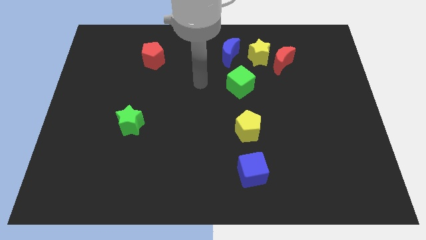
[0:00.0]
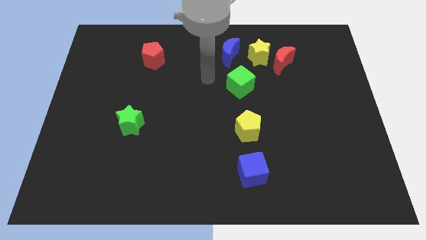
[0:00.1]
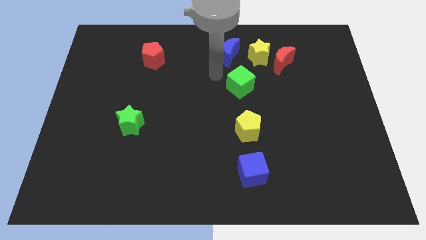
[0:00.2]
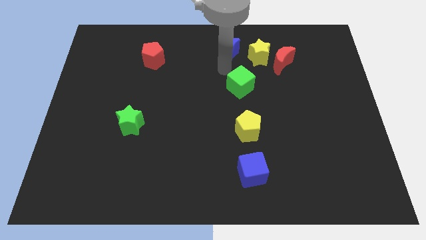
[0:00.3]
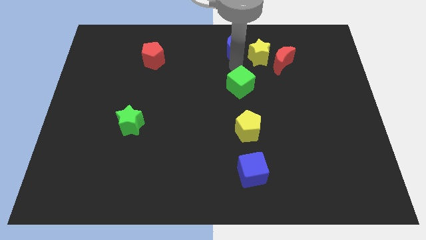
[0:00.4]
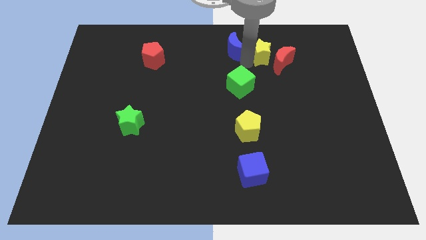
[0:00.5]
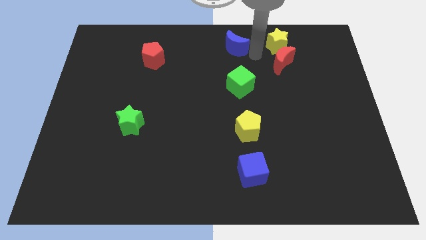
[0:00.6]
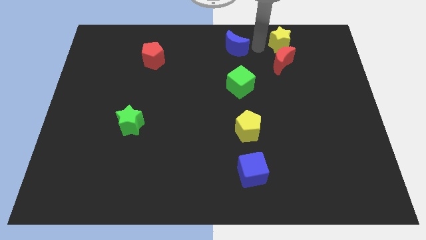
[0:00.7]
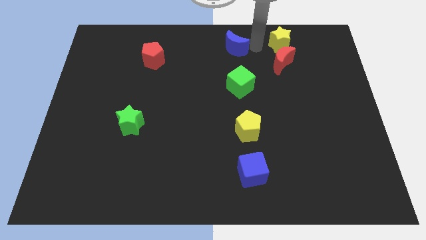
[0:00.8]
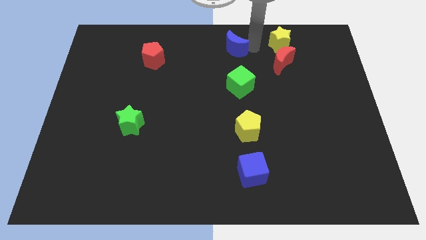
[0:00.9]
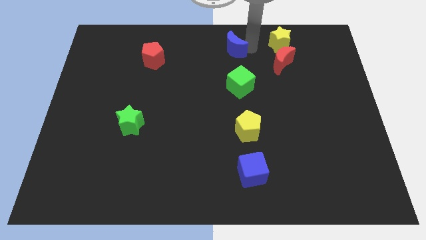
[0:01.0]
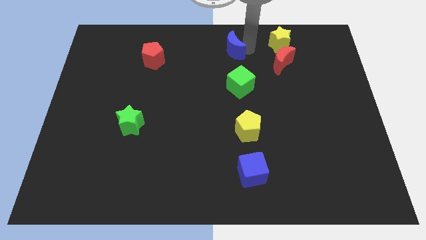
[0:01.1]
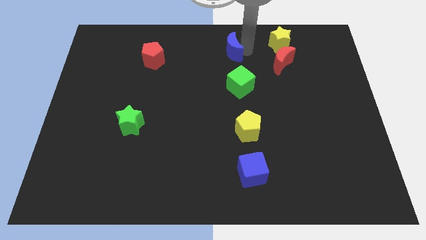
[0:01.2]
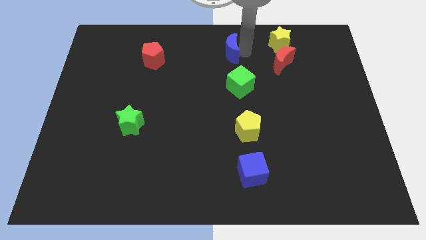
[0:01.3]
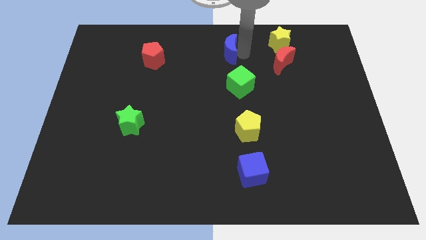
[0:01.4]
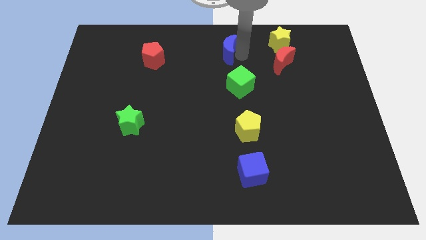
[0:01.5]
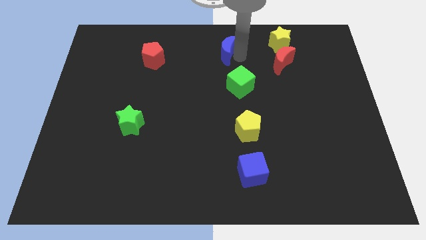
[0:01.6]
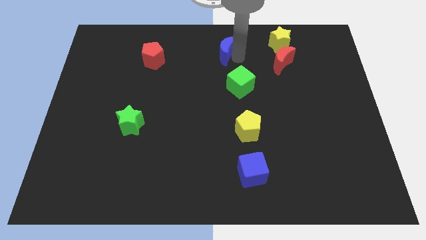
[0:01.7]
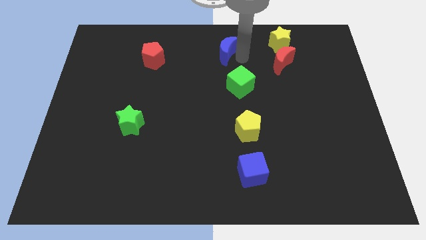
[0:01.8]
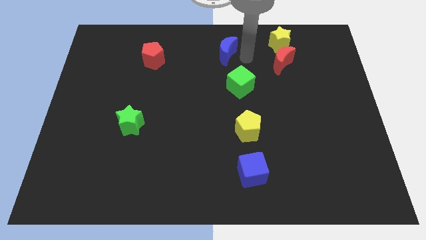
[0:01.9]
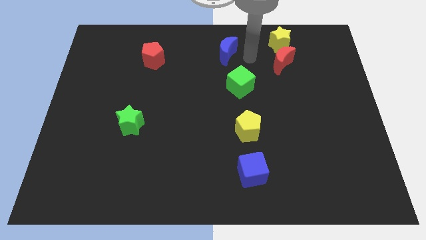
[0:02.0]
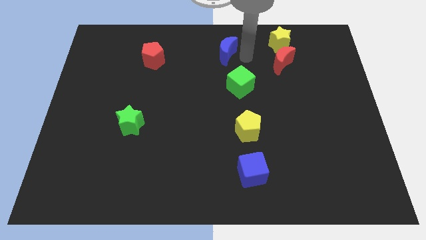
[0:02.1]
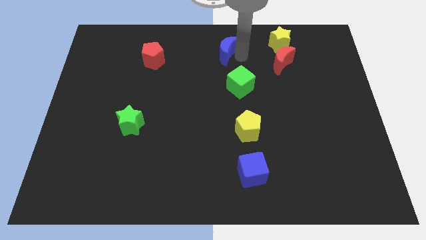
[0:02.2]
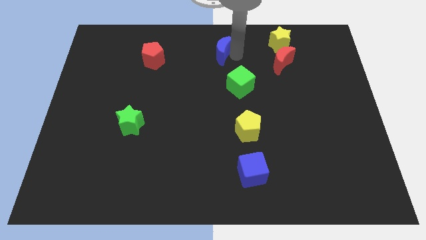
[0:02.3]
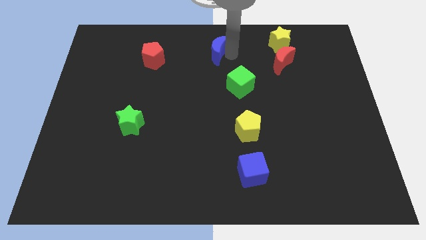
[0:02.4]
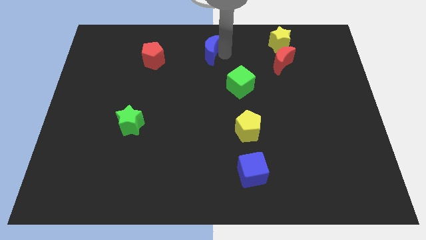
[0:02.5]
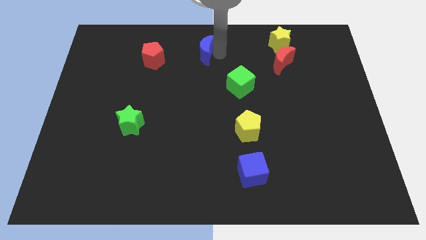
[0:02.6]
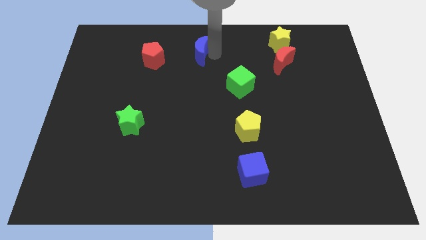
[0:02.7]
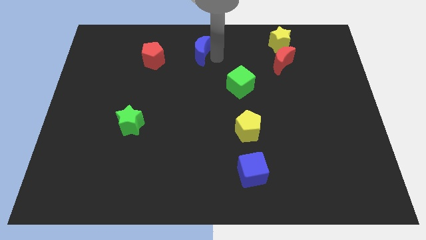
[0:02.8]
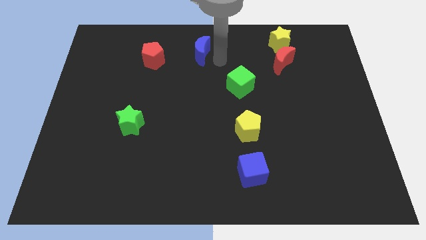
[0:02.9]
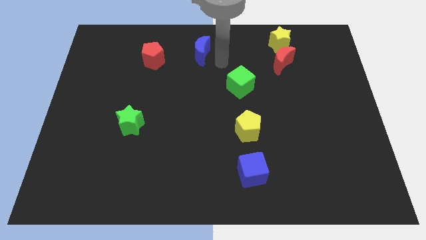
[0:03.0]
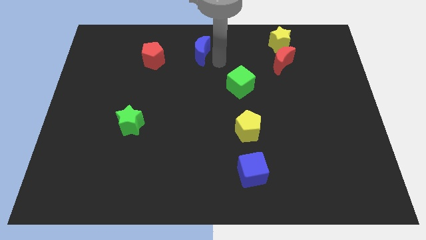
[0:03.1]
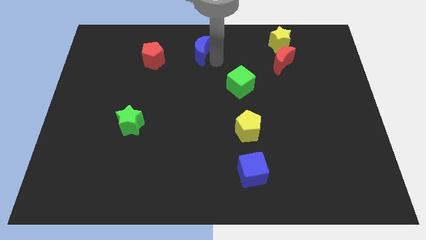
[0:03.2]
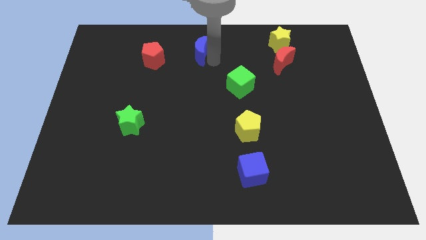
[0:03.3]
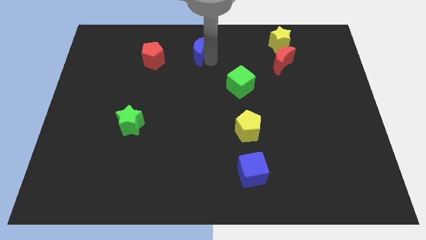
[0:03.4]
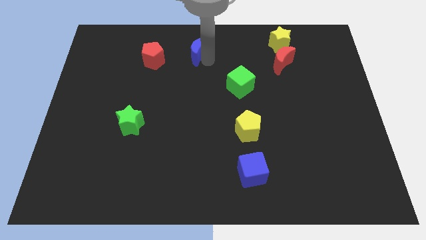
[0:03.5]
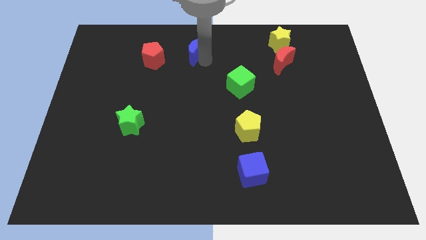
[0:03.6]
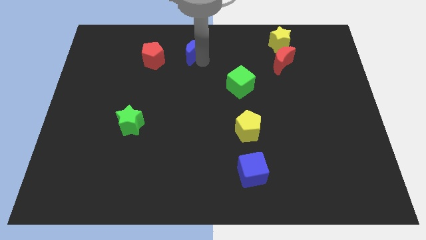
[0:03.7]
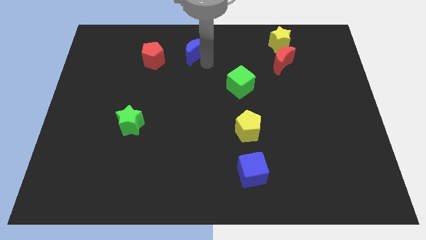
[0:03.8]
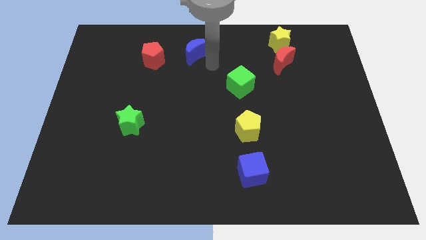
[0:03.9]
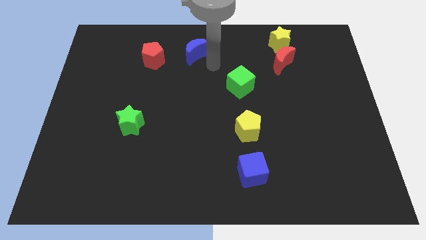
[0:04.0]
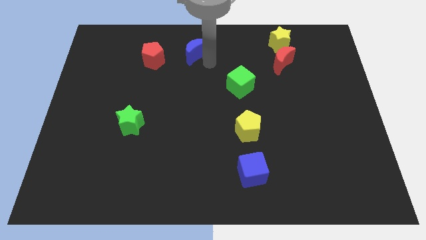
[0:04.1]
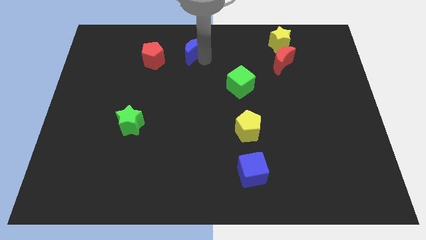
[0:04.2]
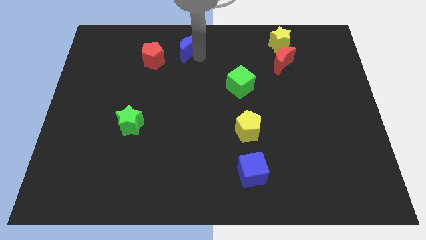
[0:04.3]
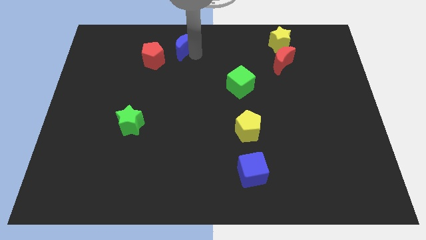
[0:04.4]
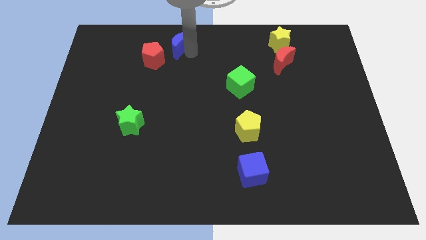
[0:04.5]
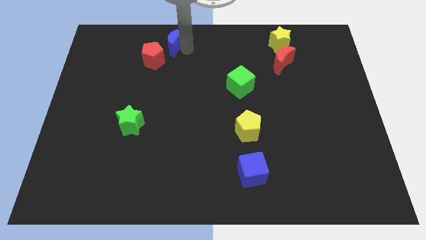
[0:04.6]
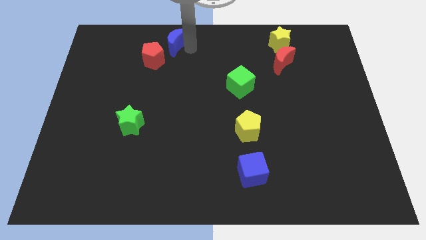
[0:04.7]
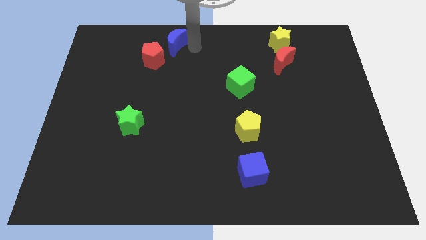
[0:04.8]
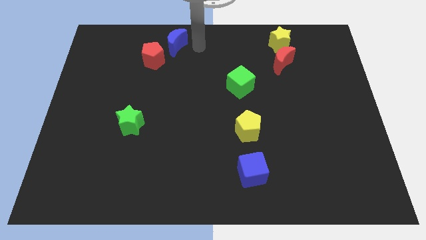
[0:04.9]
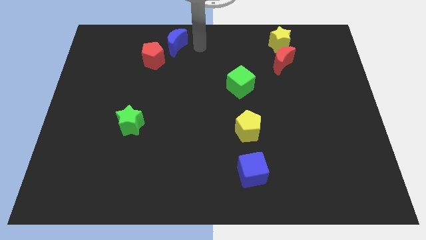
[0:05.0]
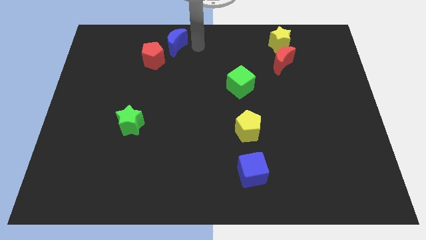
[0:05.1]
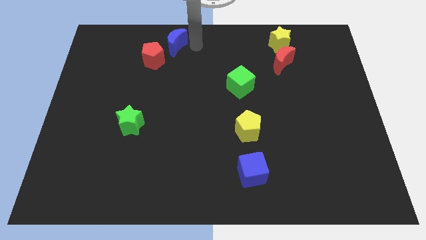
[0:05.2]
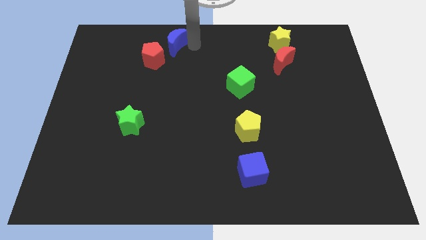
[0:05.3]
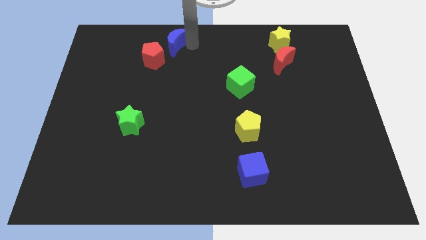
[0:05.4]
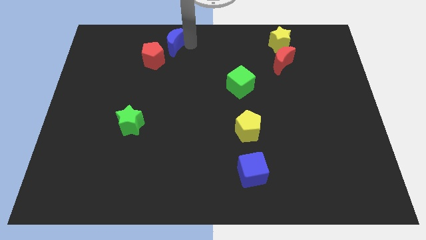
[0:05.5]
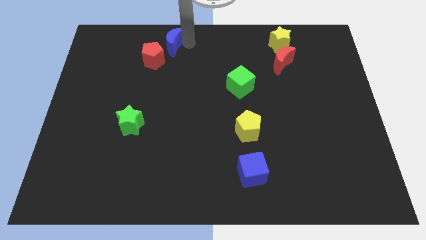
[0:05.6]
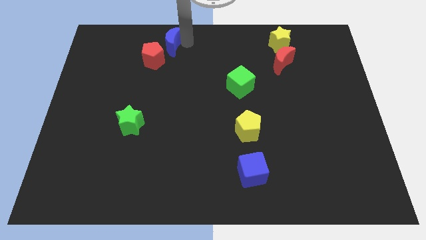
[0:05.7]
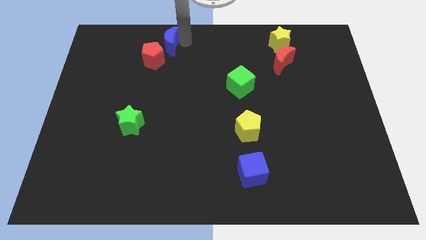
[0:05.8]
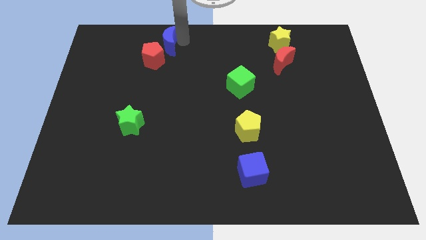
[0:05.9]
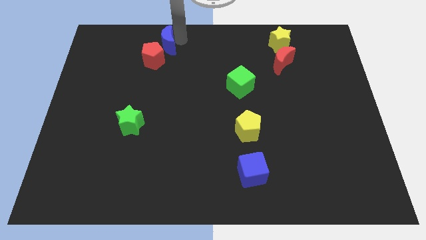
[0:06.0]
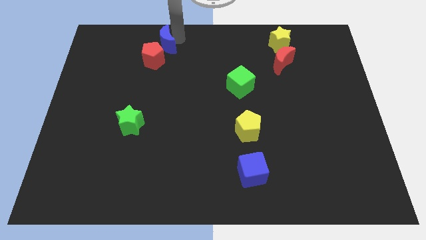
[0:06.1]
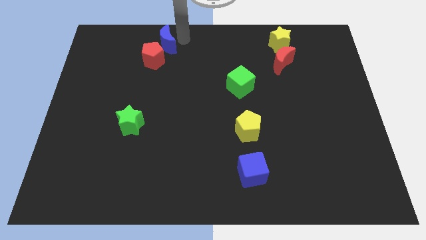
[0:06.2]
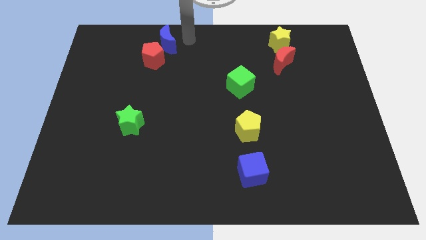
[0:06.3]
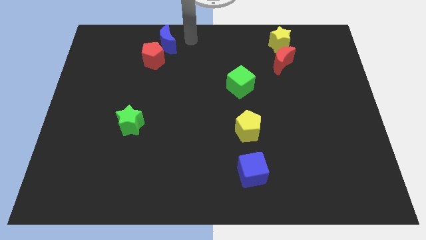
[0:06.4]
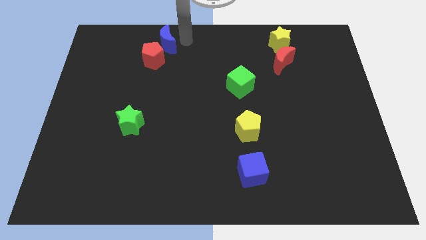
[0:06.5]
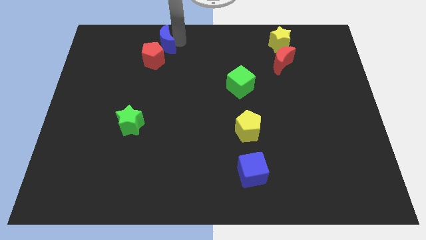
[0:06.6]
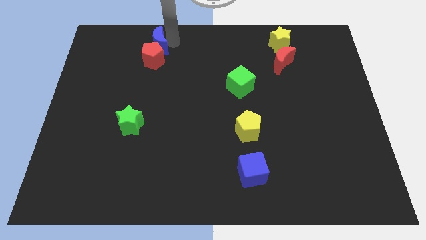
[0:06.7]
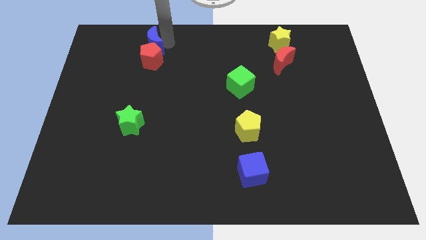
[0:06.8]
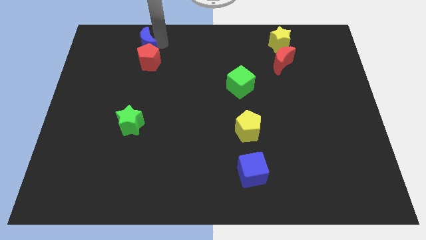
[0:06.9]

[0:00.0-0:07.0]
push the blue moon to the left

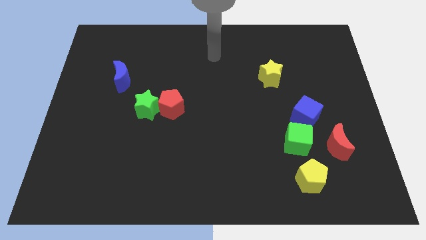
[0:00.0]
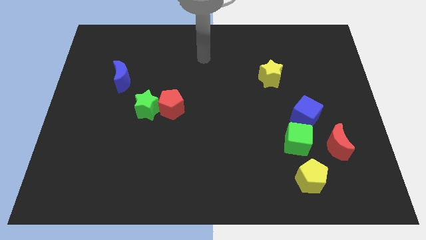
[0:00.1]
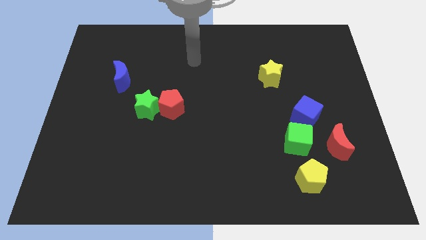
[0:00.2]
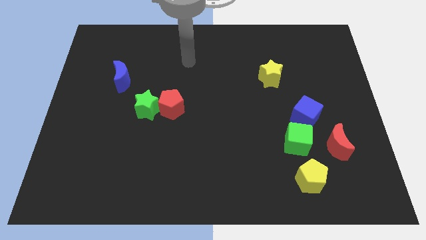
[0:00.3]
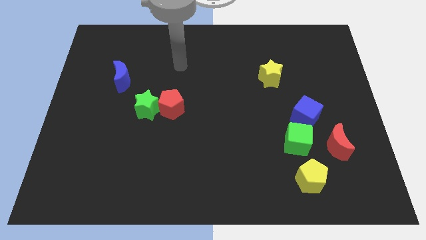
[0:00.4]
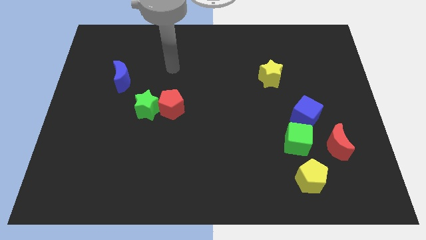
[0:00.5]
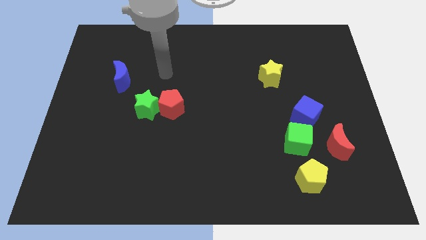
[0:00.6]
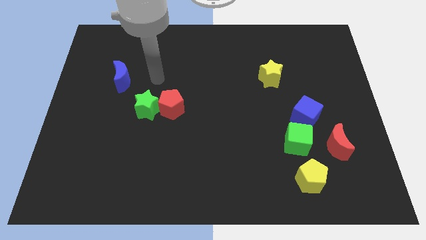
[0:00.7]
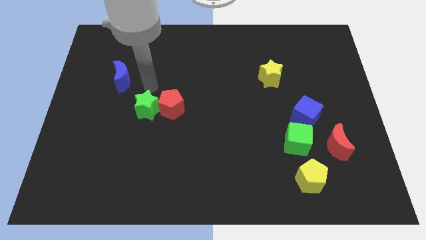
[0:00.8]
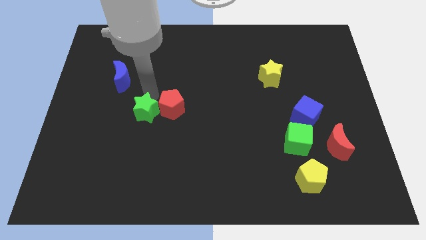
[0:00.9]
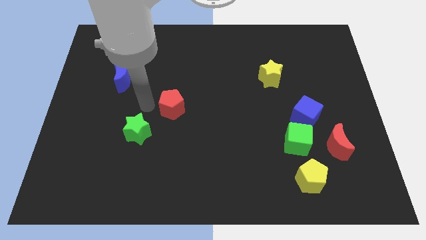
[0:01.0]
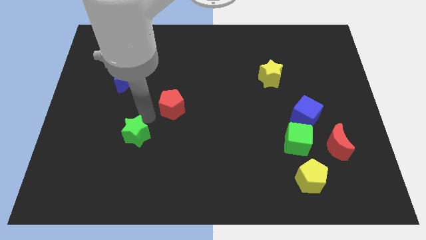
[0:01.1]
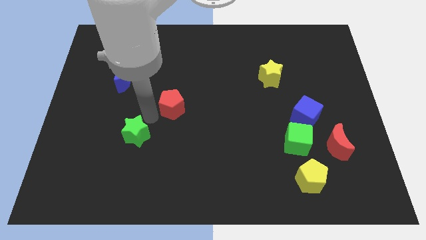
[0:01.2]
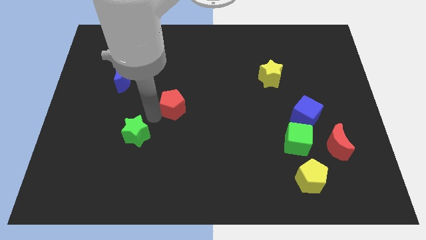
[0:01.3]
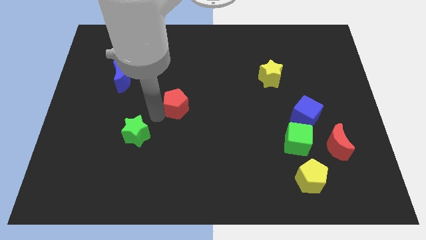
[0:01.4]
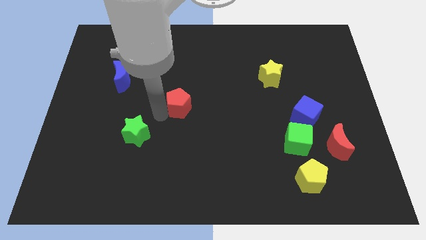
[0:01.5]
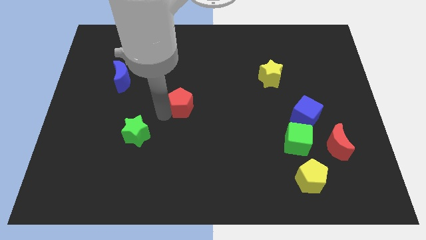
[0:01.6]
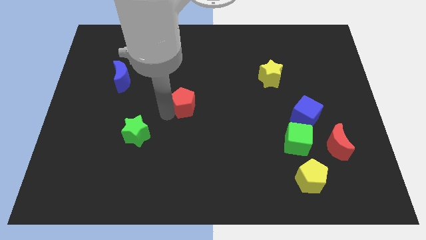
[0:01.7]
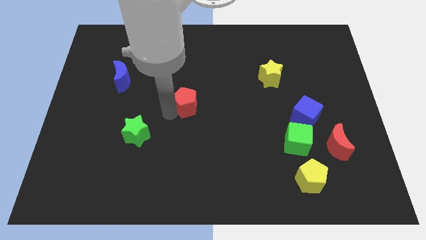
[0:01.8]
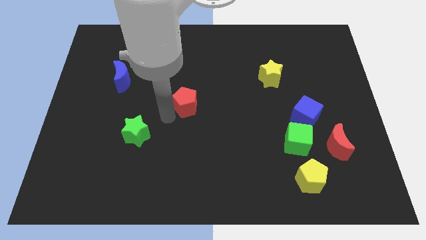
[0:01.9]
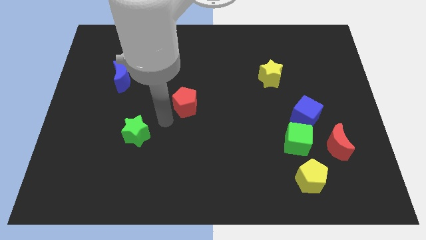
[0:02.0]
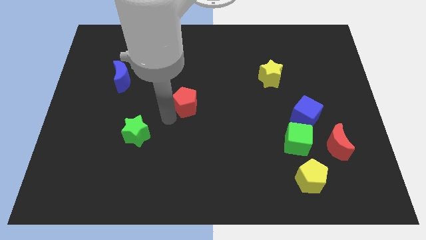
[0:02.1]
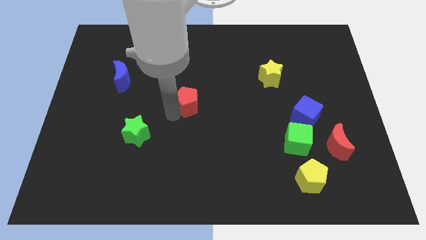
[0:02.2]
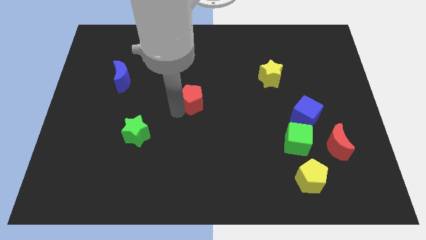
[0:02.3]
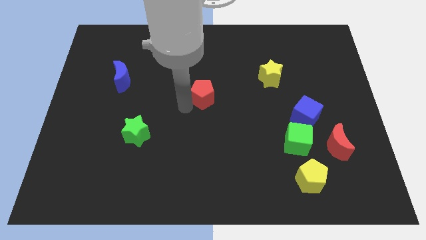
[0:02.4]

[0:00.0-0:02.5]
slide the red pentagon upwards and then right a bit
